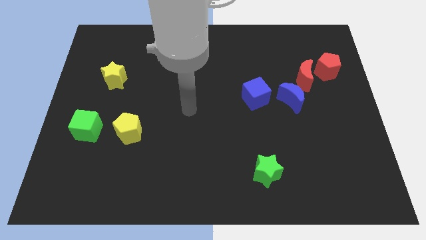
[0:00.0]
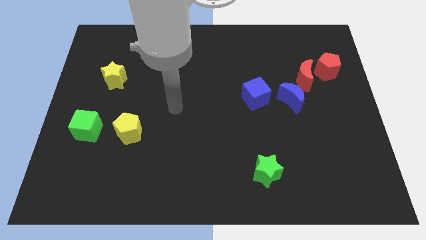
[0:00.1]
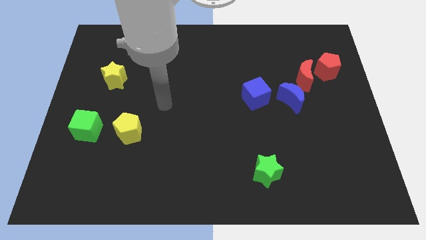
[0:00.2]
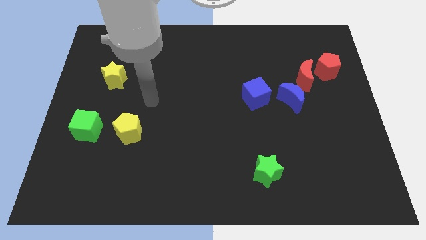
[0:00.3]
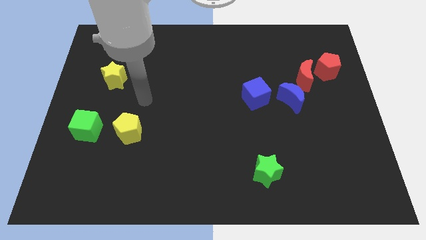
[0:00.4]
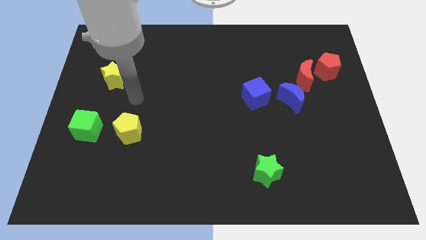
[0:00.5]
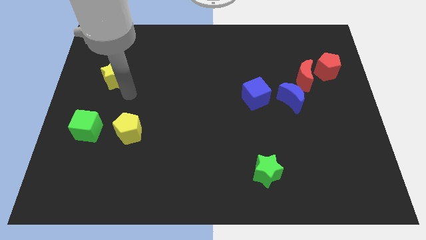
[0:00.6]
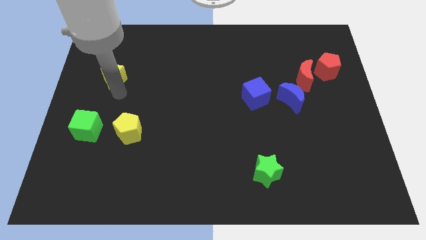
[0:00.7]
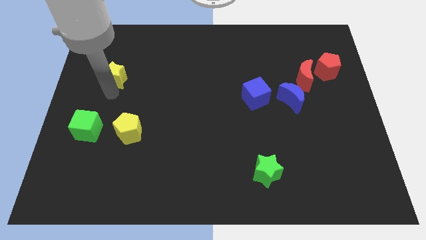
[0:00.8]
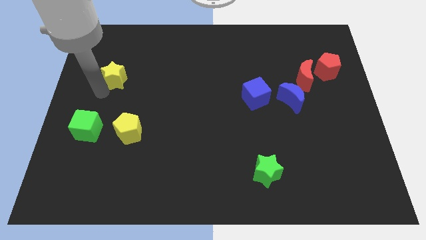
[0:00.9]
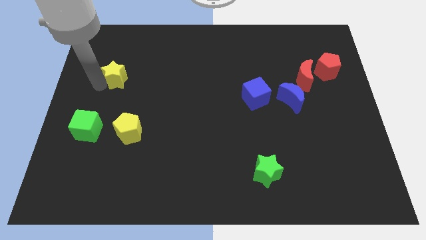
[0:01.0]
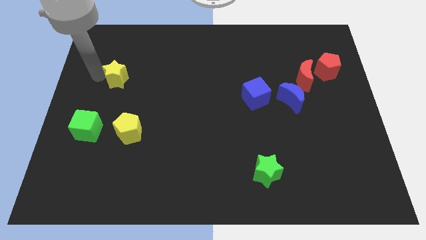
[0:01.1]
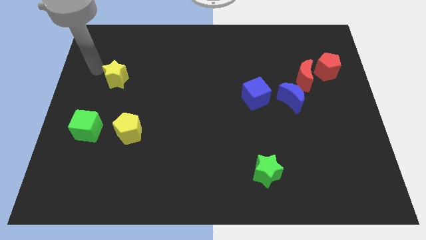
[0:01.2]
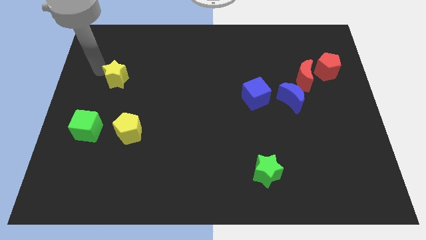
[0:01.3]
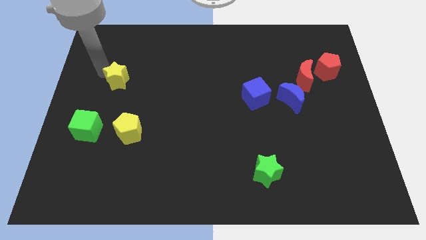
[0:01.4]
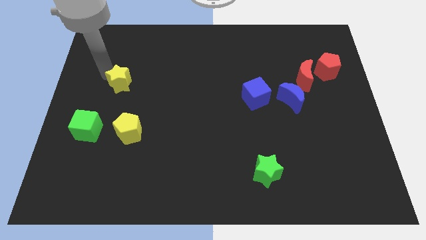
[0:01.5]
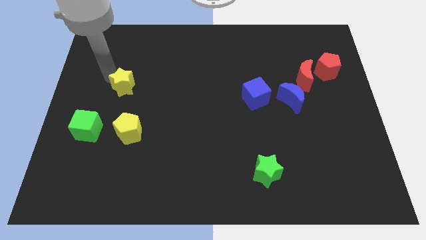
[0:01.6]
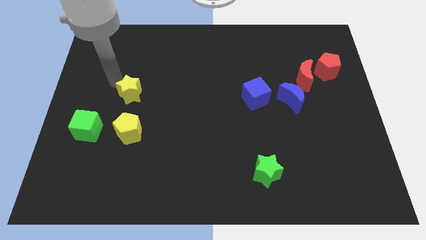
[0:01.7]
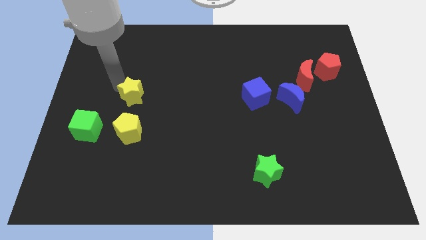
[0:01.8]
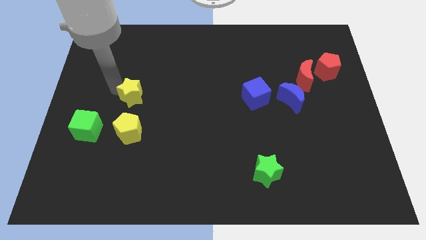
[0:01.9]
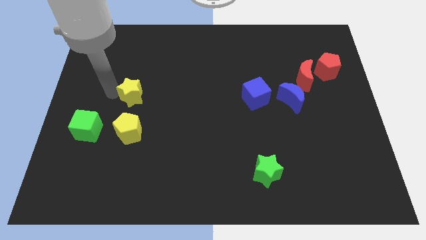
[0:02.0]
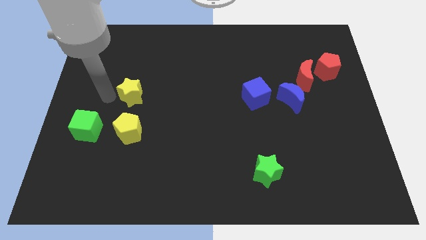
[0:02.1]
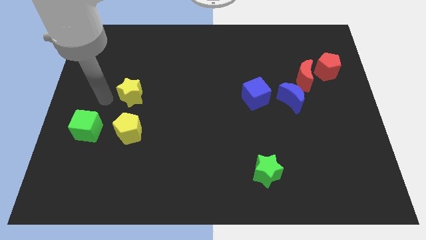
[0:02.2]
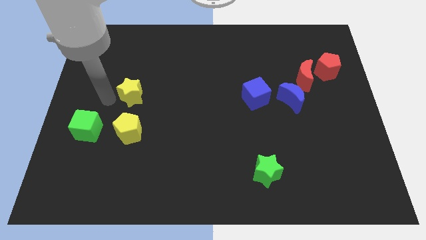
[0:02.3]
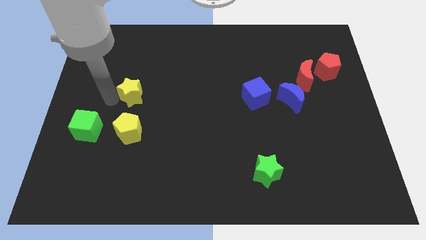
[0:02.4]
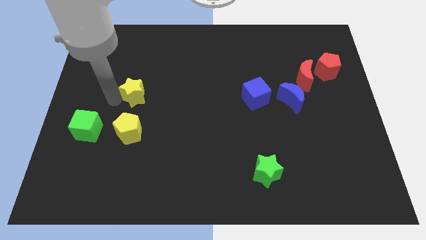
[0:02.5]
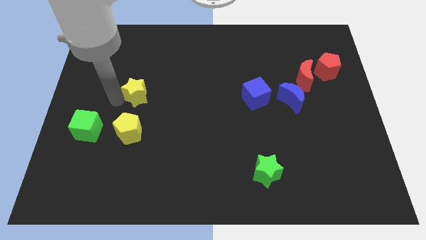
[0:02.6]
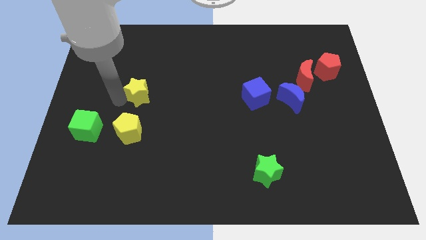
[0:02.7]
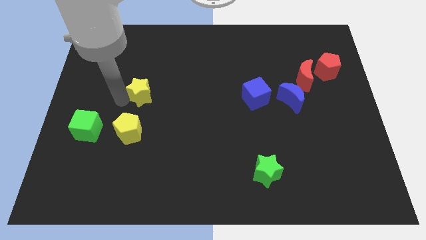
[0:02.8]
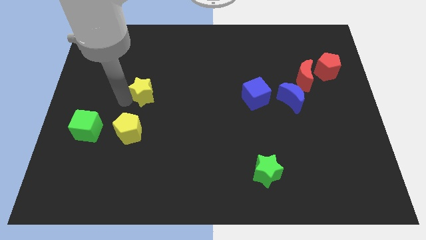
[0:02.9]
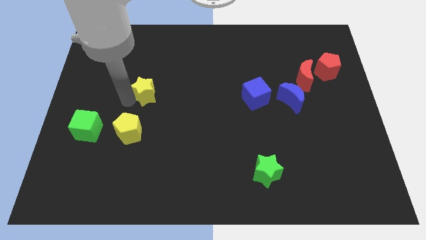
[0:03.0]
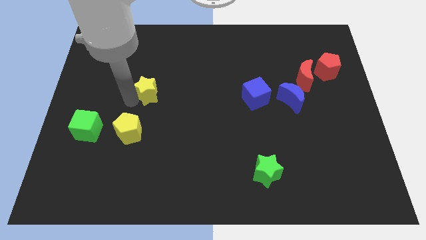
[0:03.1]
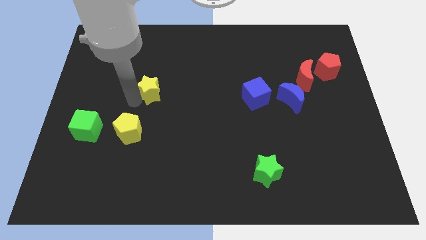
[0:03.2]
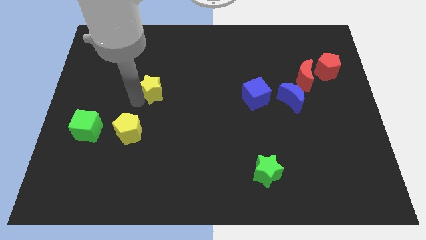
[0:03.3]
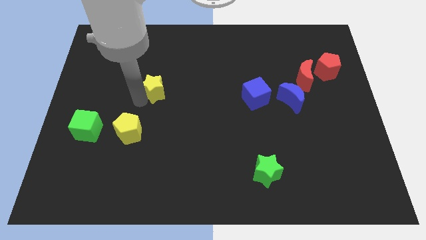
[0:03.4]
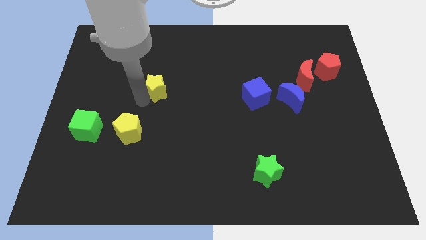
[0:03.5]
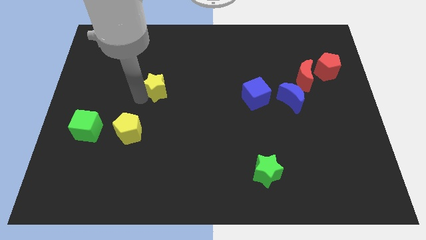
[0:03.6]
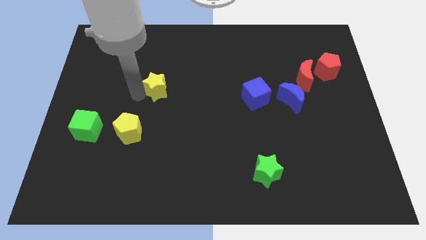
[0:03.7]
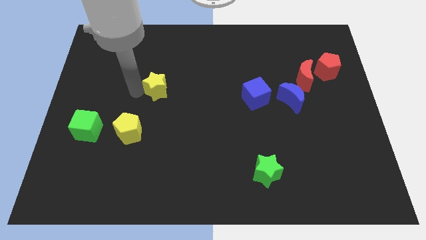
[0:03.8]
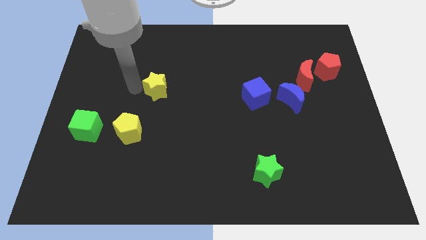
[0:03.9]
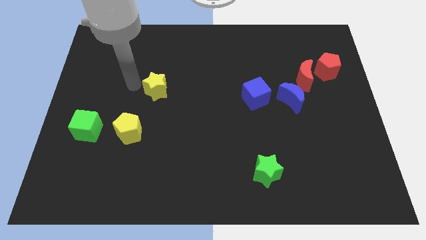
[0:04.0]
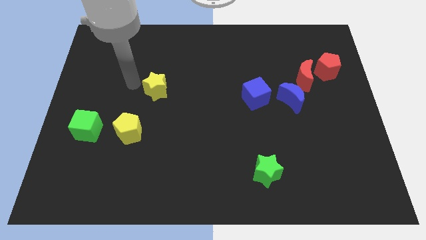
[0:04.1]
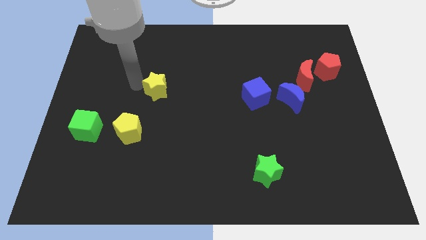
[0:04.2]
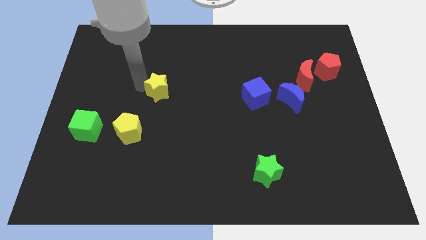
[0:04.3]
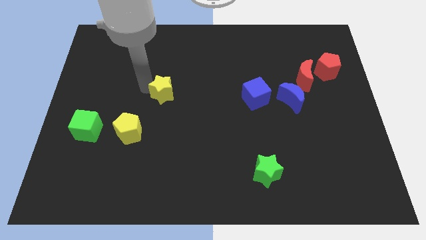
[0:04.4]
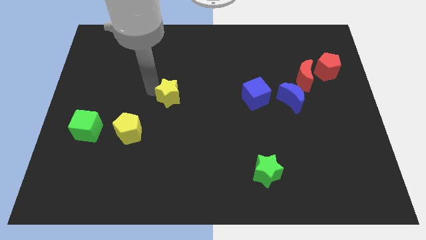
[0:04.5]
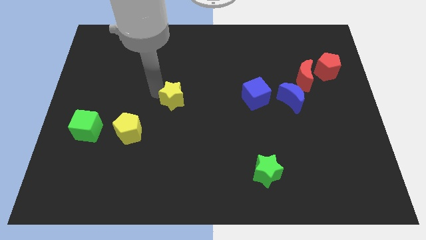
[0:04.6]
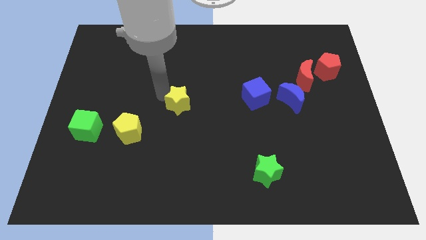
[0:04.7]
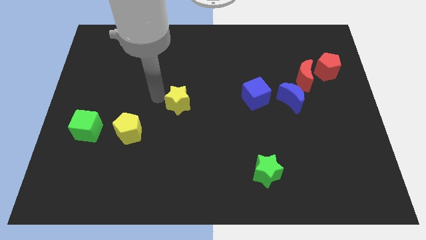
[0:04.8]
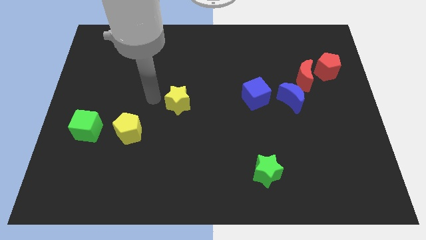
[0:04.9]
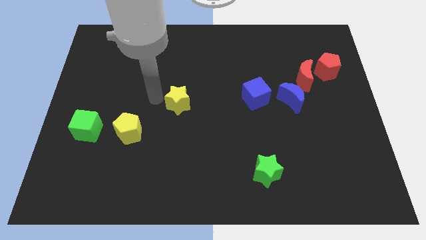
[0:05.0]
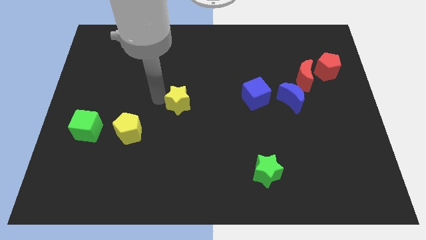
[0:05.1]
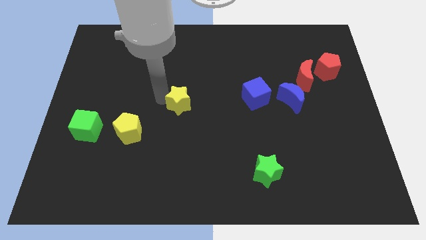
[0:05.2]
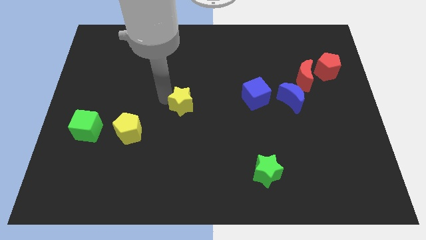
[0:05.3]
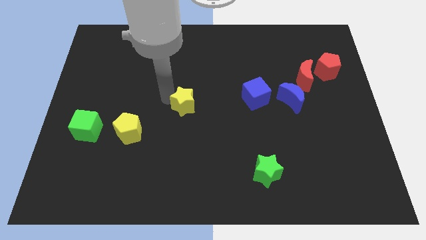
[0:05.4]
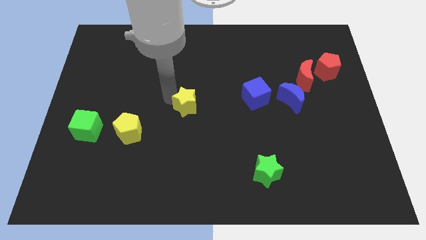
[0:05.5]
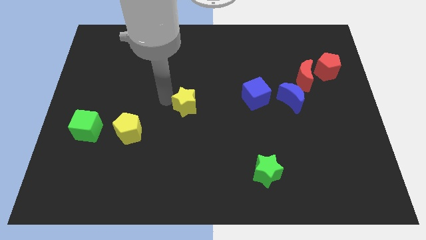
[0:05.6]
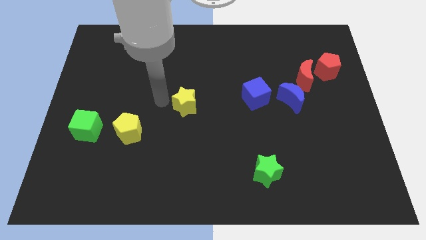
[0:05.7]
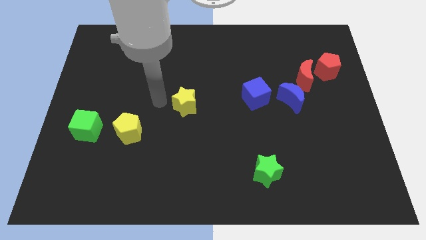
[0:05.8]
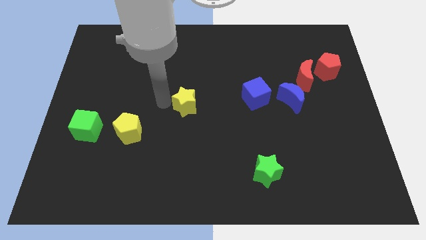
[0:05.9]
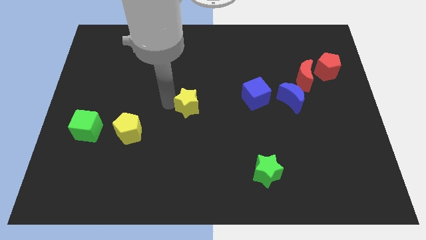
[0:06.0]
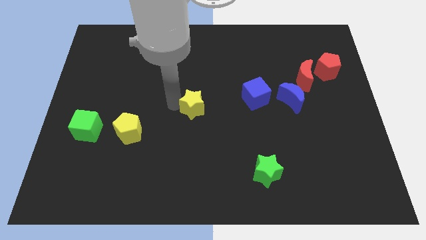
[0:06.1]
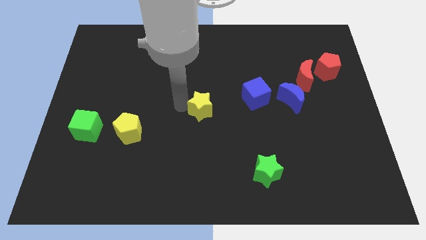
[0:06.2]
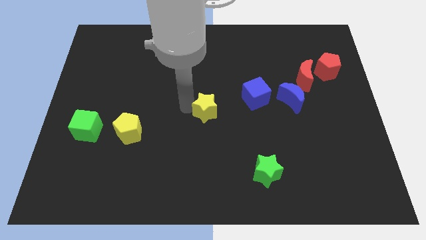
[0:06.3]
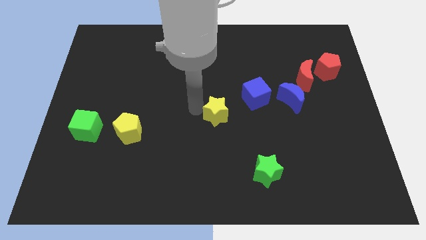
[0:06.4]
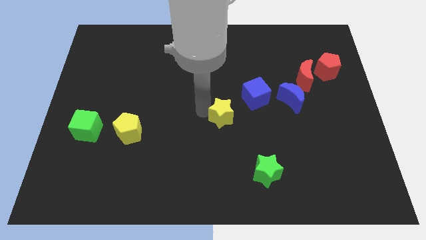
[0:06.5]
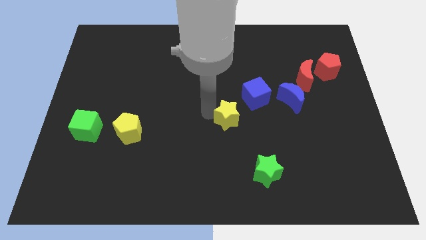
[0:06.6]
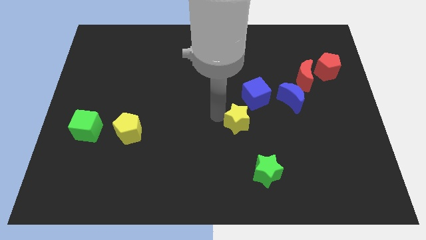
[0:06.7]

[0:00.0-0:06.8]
put the yellow star to the bottom of the blue cube

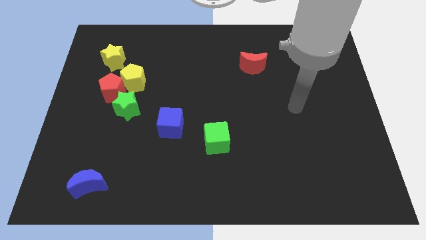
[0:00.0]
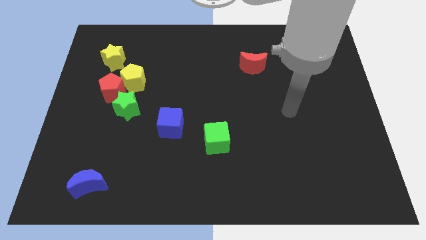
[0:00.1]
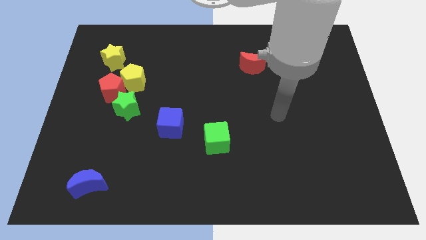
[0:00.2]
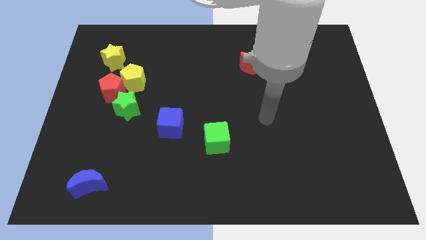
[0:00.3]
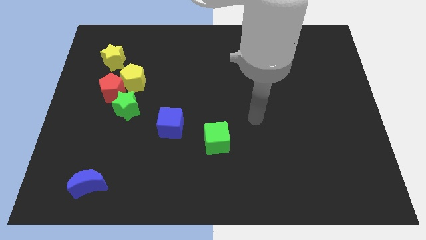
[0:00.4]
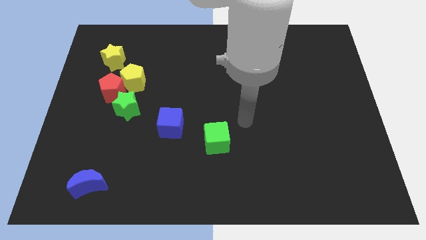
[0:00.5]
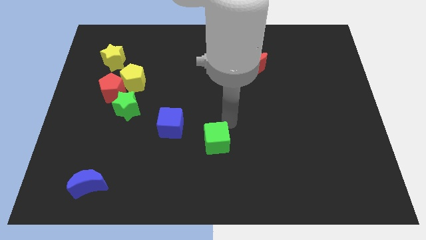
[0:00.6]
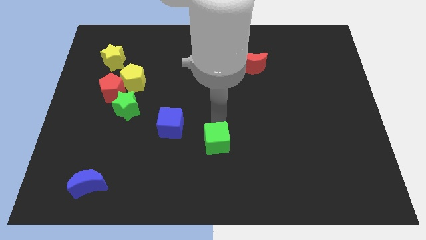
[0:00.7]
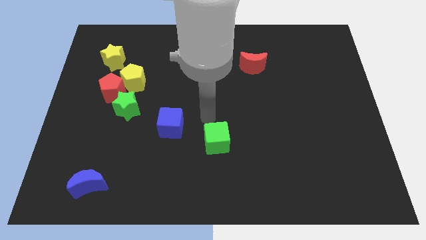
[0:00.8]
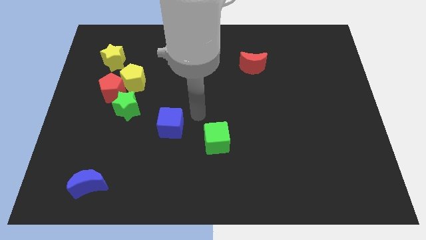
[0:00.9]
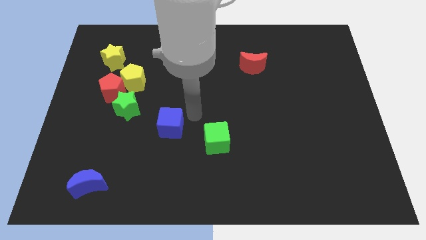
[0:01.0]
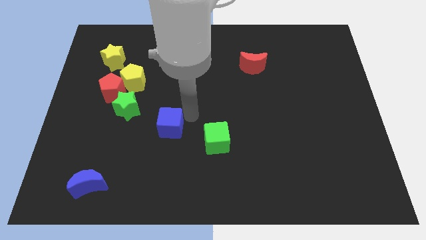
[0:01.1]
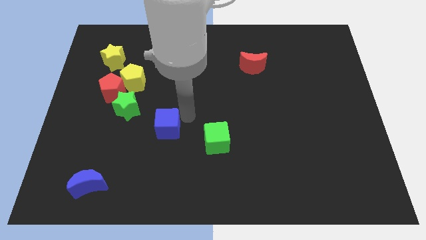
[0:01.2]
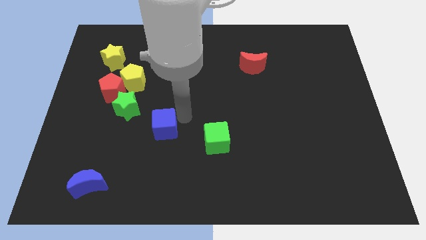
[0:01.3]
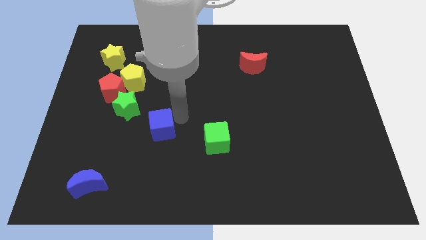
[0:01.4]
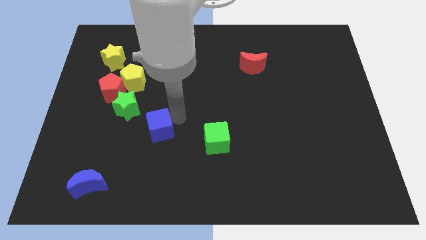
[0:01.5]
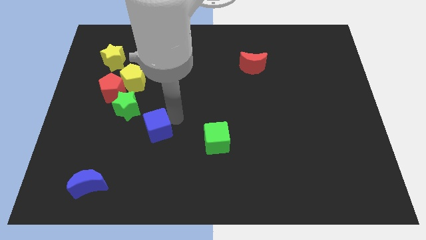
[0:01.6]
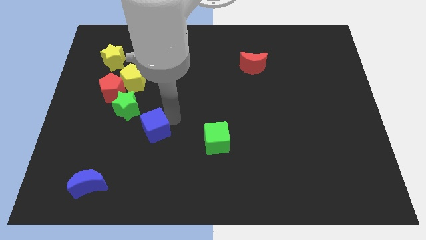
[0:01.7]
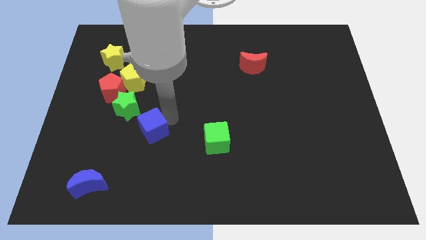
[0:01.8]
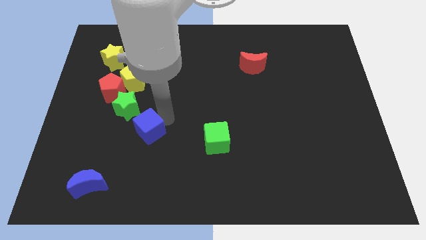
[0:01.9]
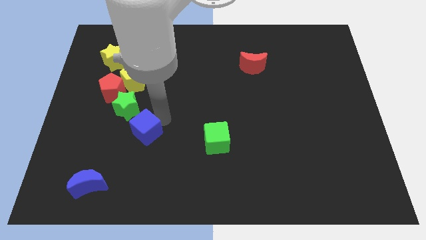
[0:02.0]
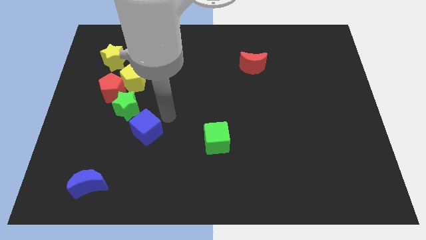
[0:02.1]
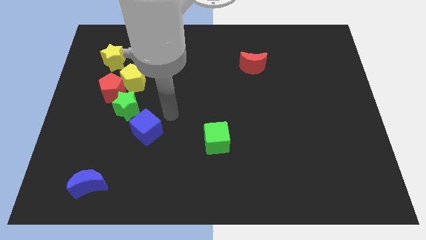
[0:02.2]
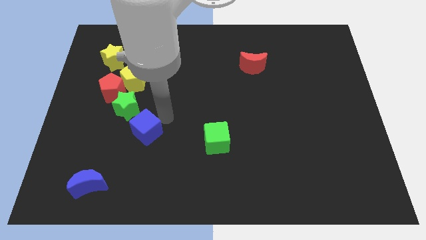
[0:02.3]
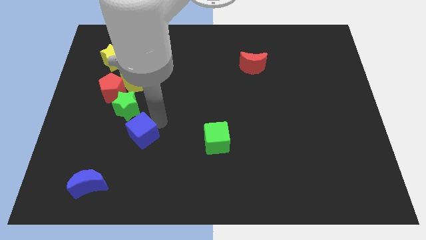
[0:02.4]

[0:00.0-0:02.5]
move the blue cube to the bottom side of the green star
